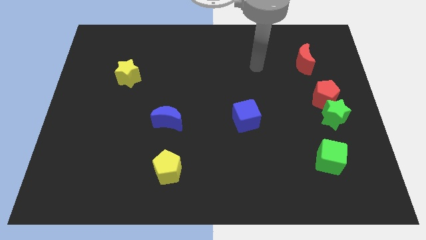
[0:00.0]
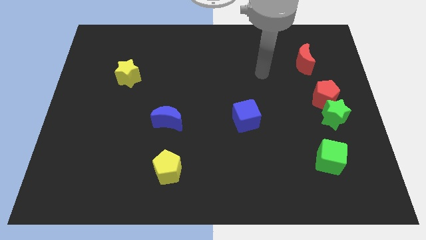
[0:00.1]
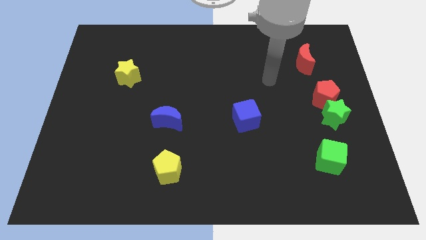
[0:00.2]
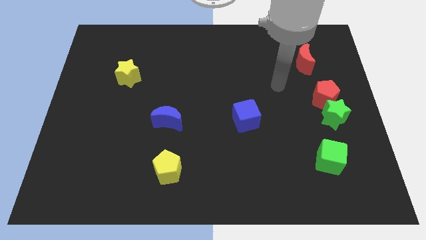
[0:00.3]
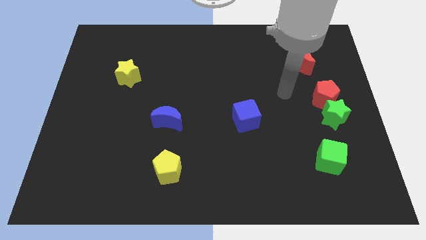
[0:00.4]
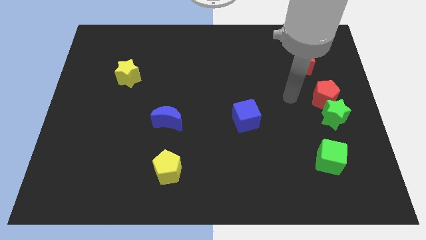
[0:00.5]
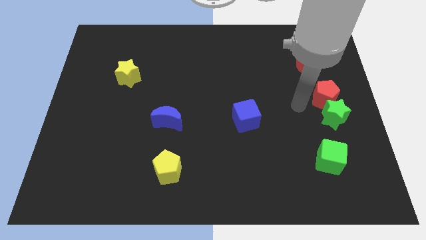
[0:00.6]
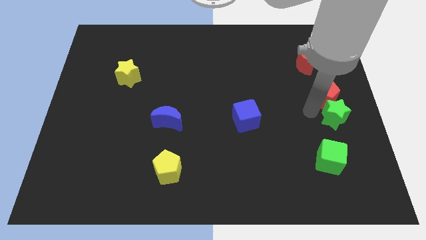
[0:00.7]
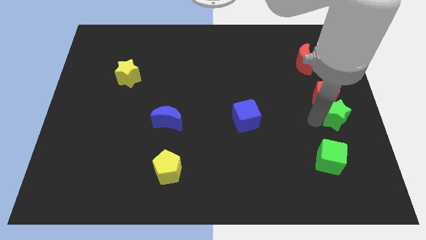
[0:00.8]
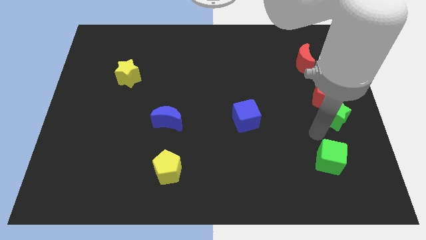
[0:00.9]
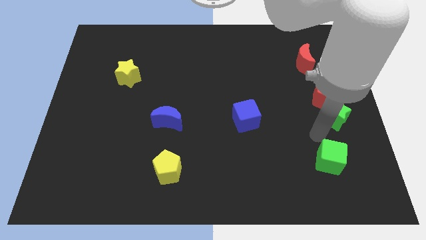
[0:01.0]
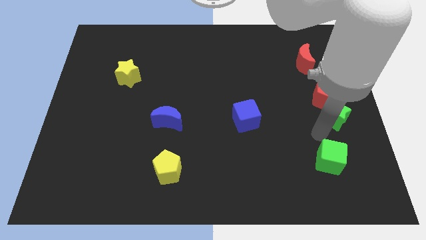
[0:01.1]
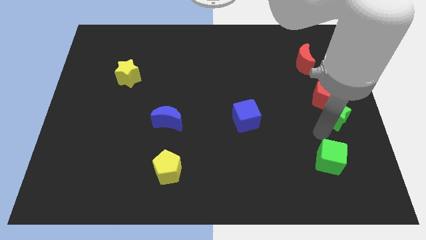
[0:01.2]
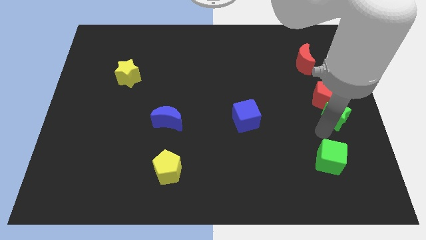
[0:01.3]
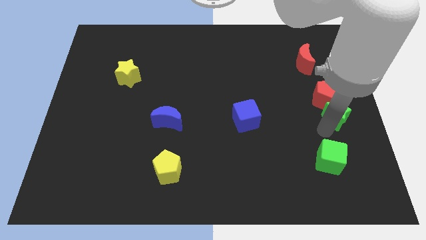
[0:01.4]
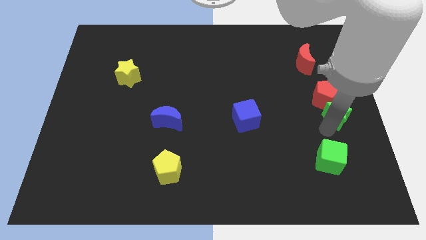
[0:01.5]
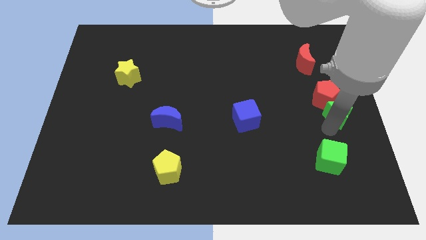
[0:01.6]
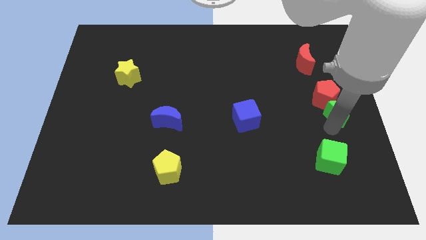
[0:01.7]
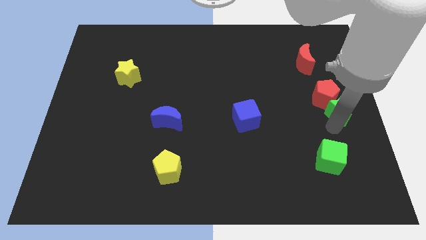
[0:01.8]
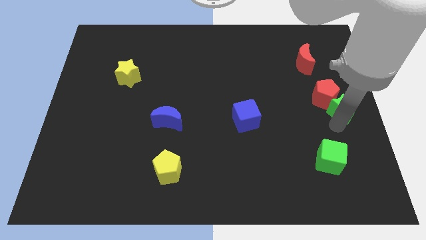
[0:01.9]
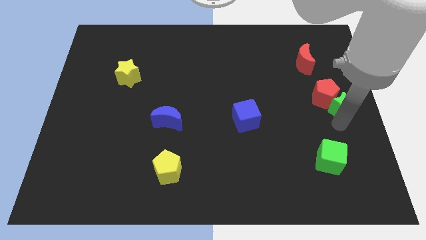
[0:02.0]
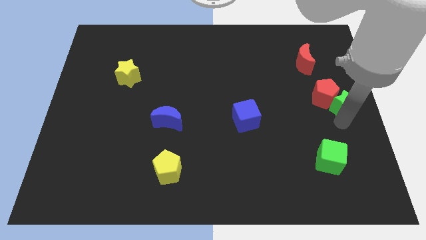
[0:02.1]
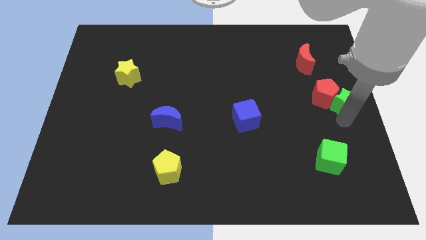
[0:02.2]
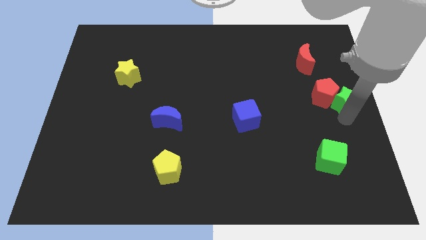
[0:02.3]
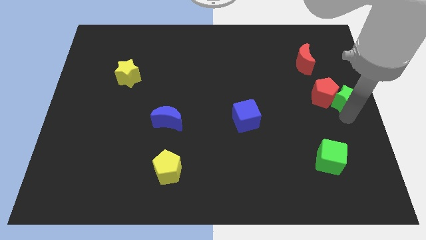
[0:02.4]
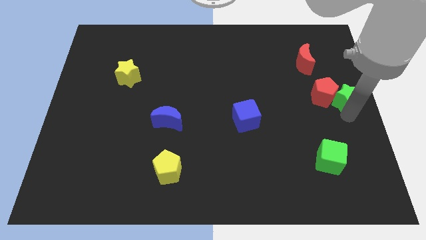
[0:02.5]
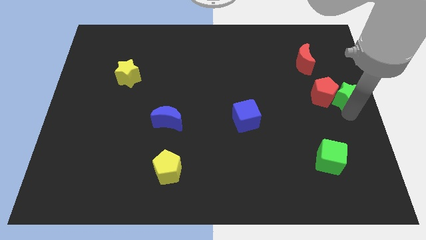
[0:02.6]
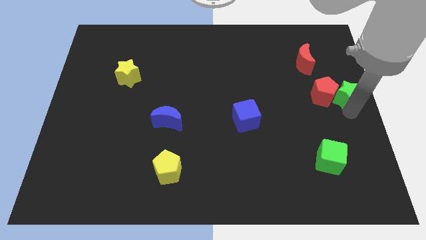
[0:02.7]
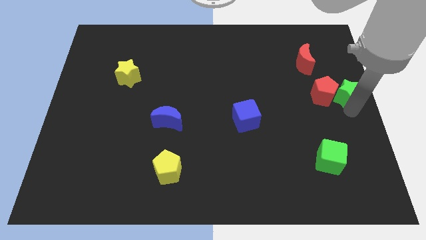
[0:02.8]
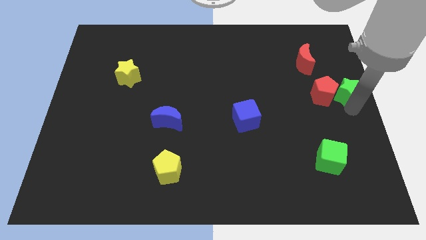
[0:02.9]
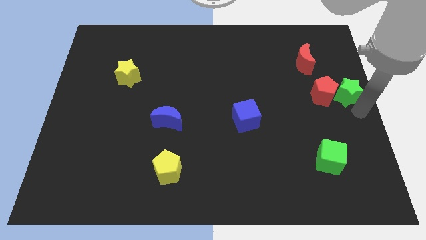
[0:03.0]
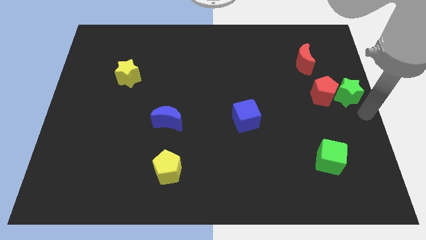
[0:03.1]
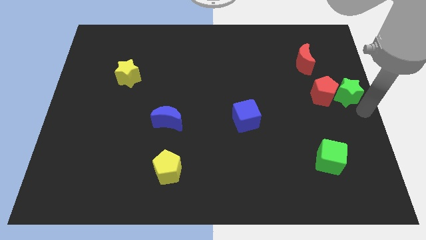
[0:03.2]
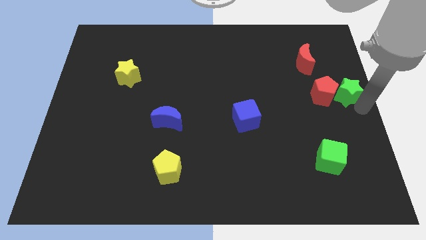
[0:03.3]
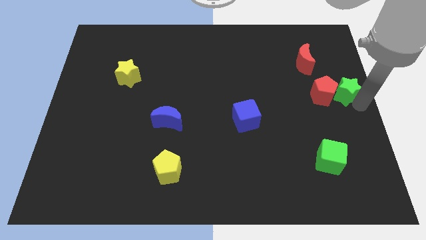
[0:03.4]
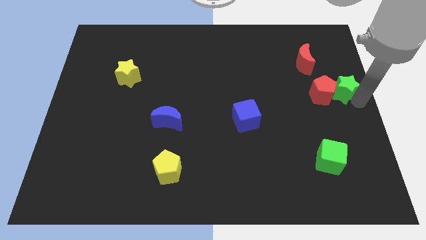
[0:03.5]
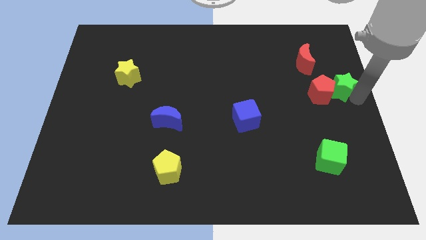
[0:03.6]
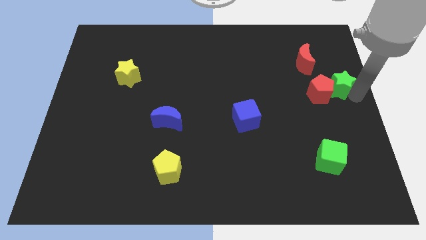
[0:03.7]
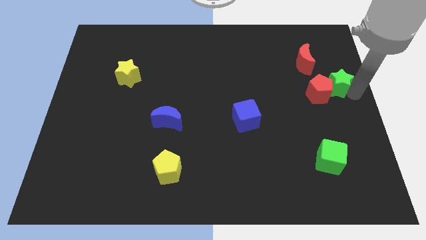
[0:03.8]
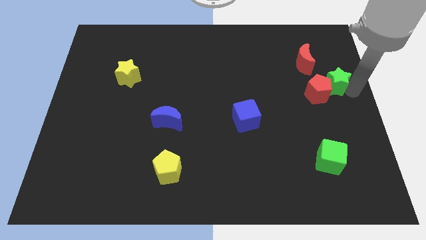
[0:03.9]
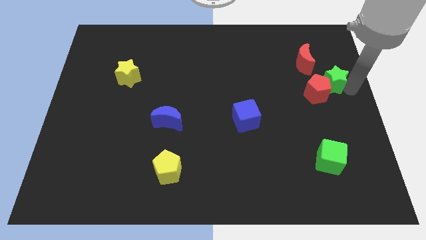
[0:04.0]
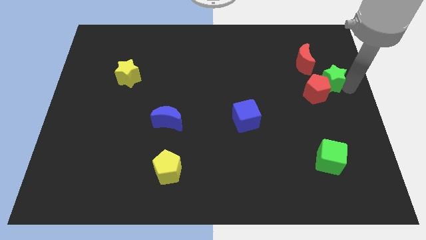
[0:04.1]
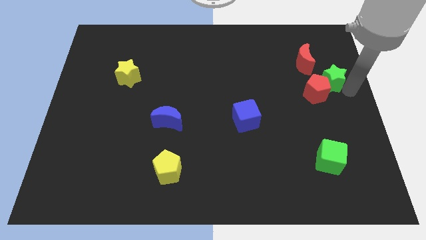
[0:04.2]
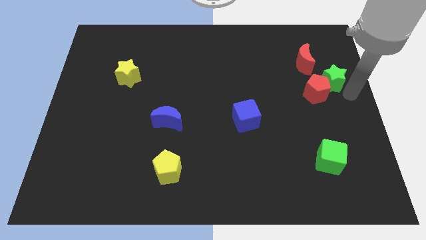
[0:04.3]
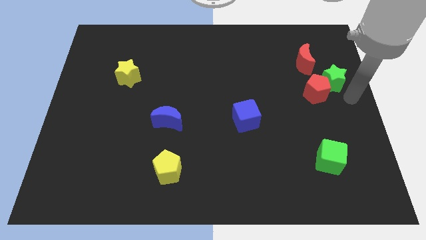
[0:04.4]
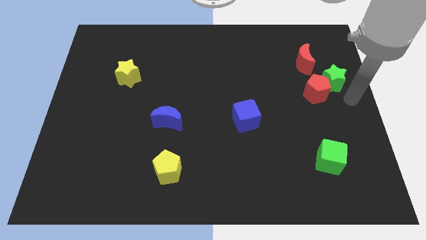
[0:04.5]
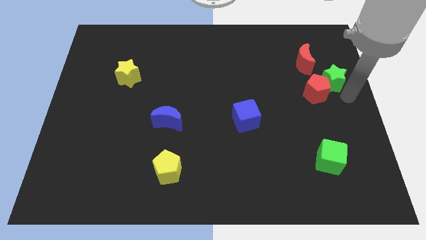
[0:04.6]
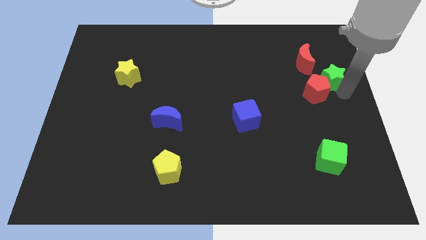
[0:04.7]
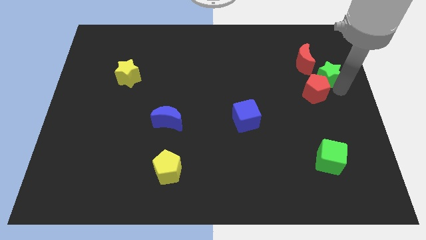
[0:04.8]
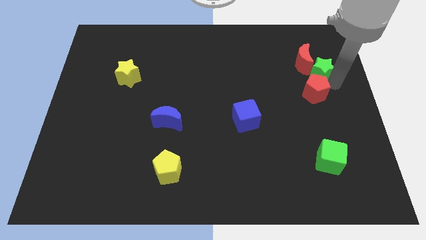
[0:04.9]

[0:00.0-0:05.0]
push the green star towards the red moon

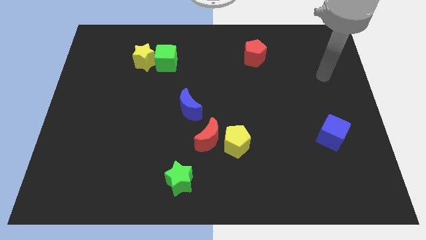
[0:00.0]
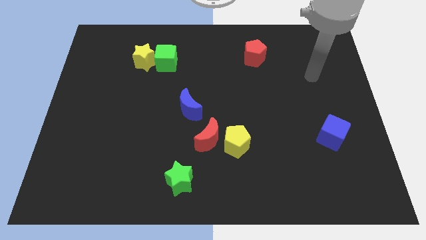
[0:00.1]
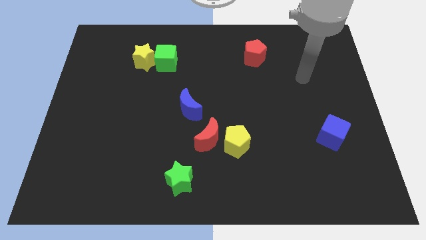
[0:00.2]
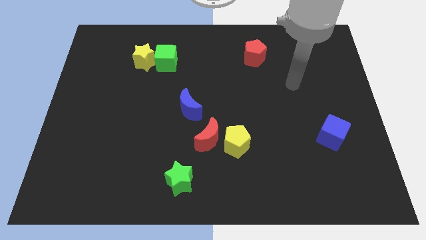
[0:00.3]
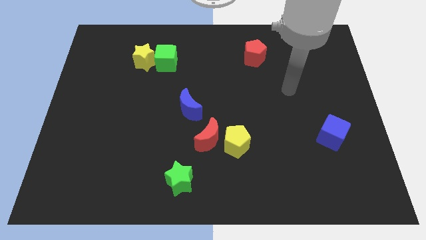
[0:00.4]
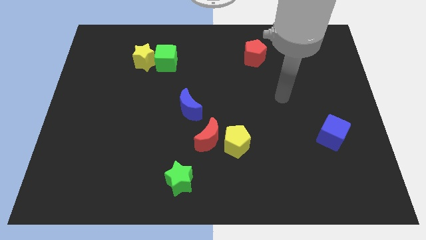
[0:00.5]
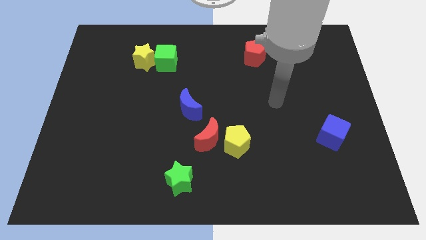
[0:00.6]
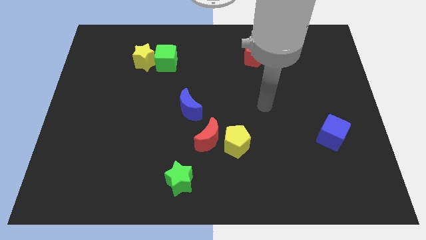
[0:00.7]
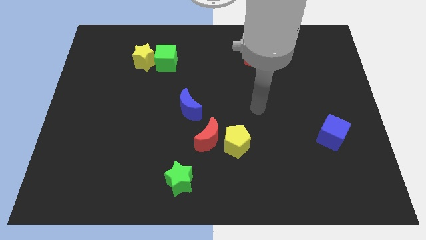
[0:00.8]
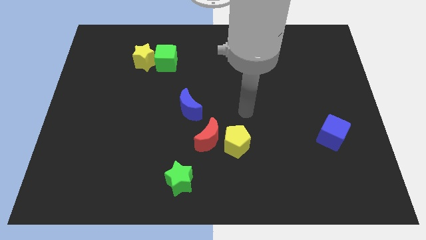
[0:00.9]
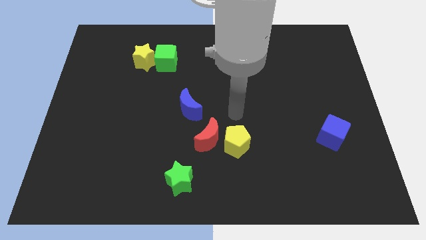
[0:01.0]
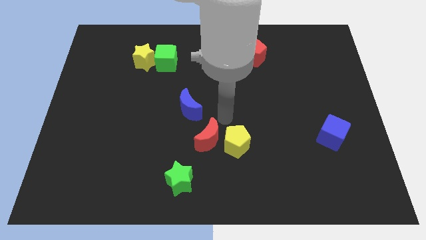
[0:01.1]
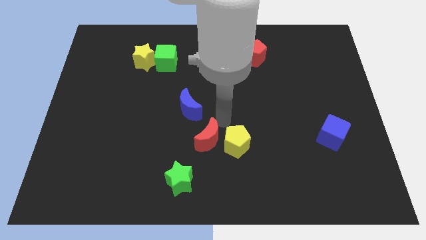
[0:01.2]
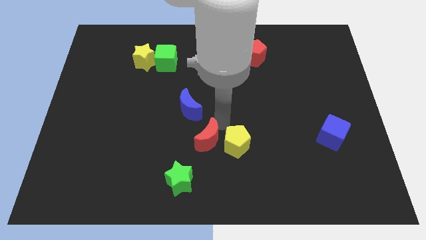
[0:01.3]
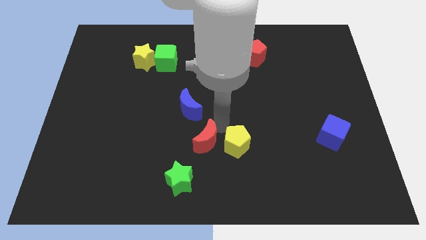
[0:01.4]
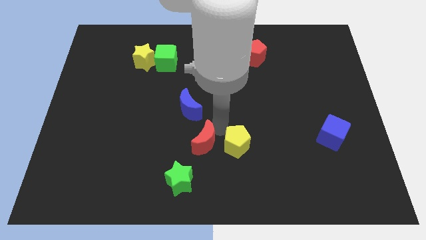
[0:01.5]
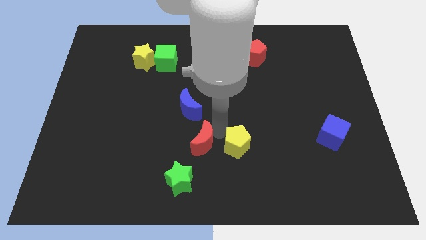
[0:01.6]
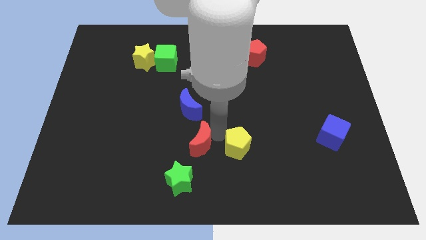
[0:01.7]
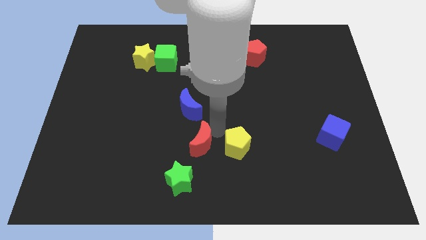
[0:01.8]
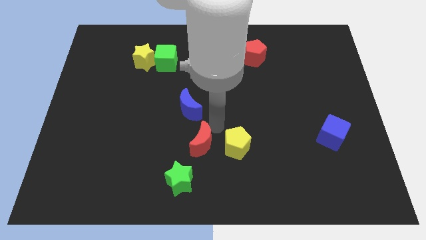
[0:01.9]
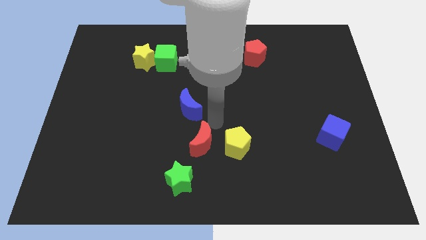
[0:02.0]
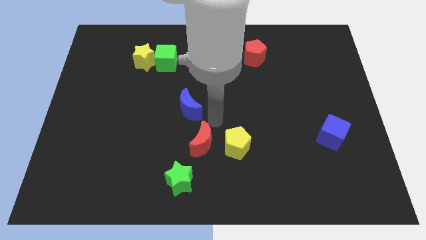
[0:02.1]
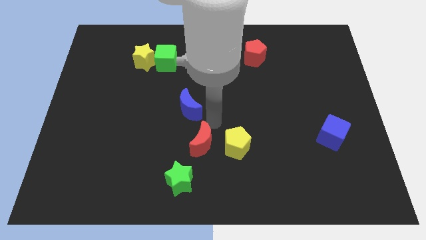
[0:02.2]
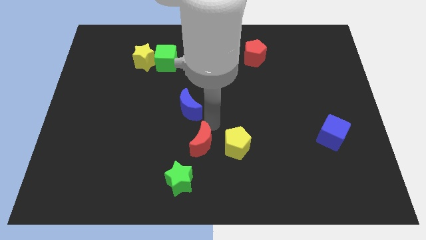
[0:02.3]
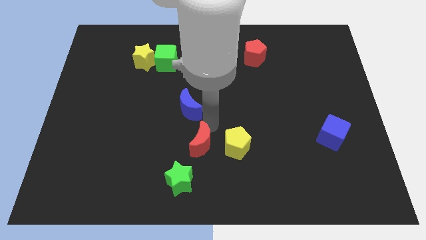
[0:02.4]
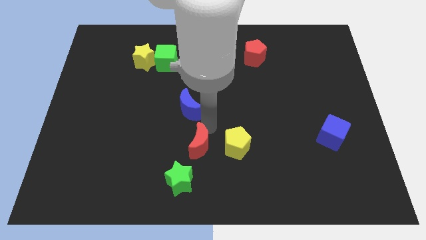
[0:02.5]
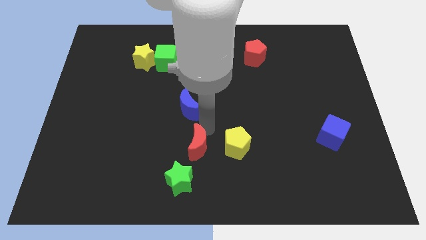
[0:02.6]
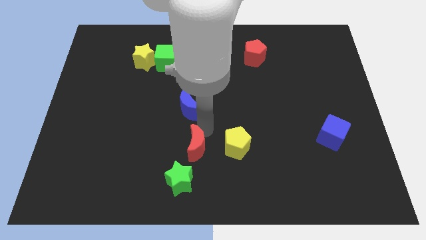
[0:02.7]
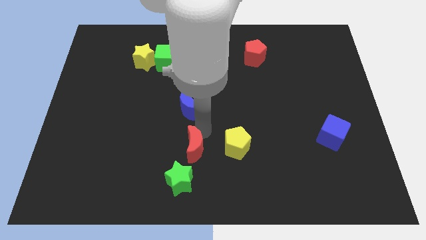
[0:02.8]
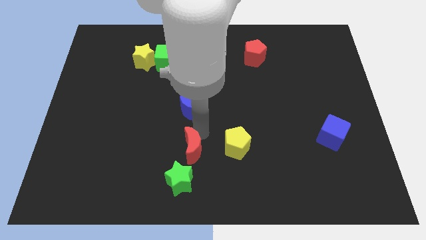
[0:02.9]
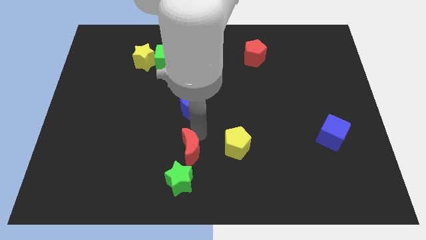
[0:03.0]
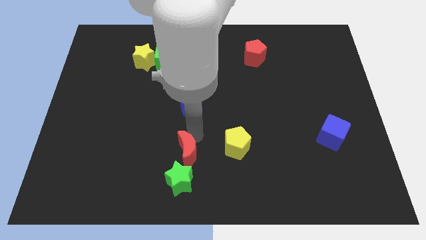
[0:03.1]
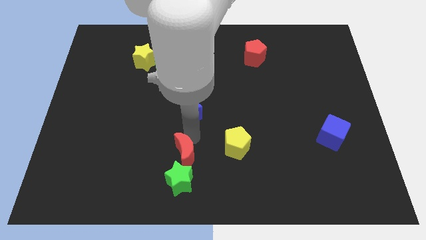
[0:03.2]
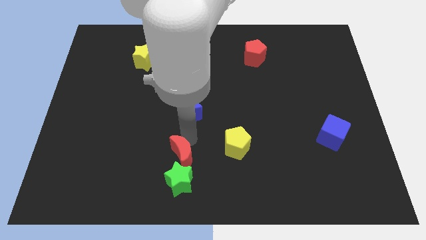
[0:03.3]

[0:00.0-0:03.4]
slide the red moon next to the green star
